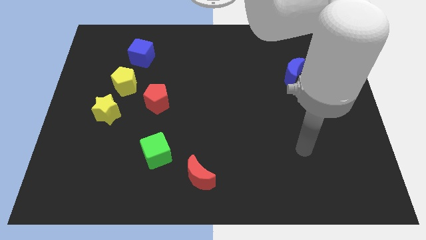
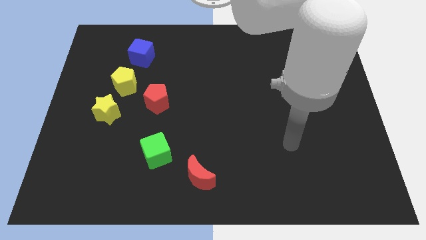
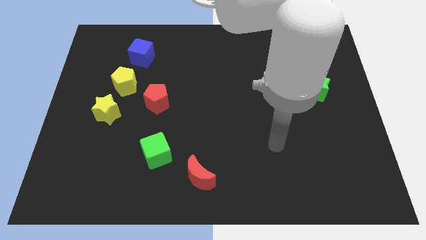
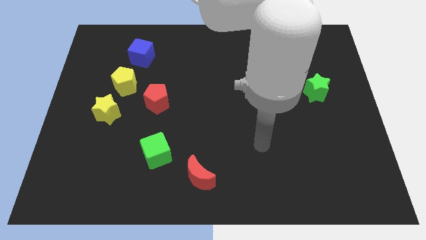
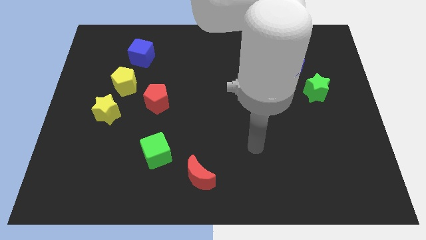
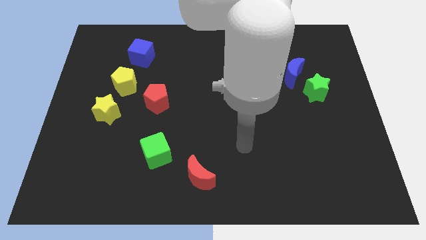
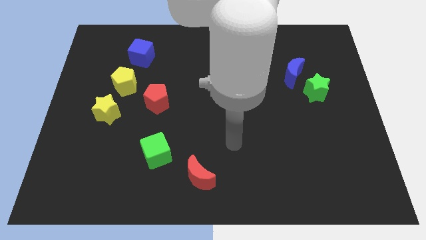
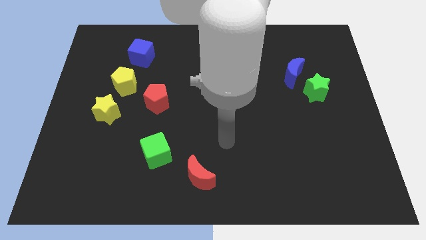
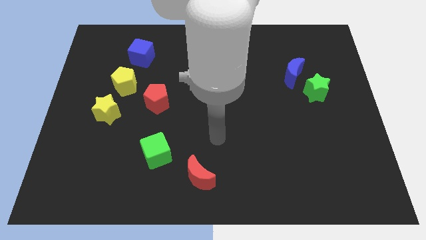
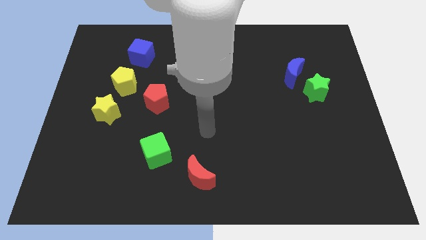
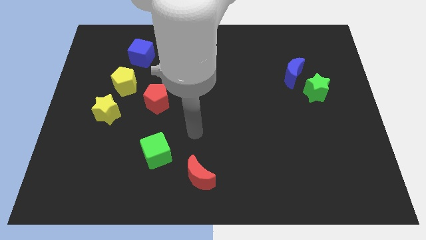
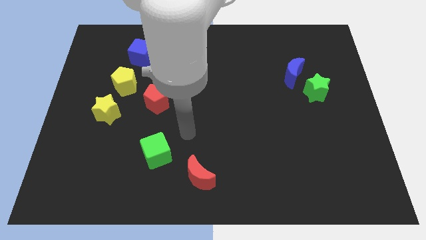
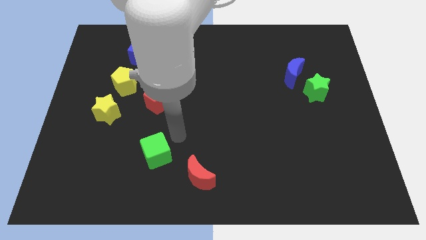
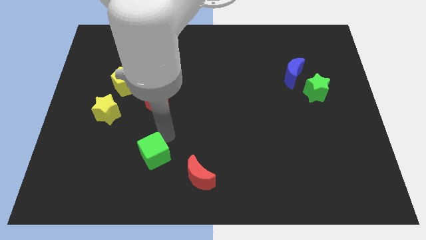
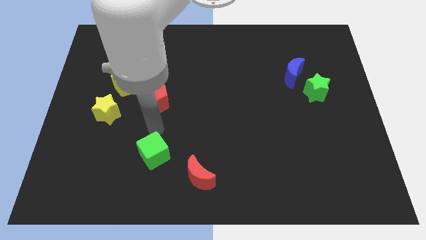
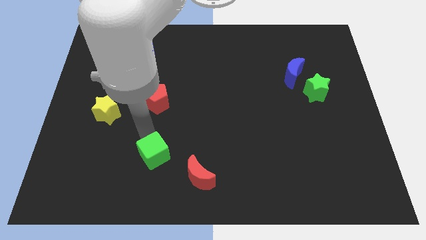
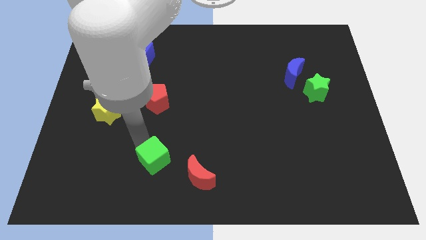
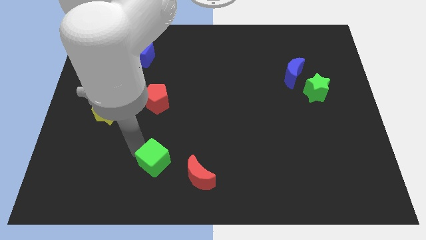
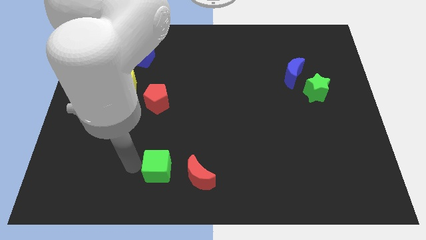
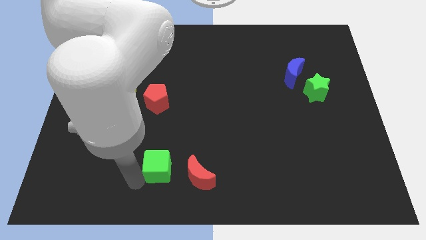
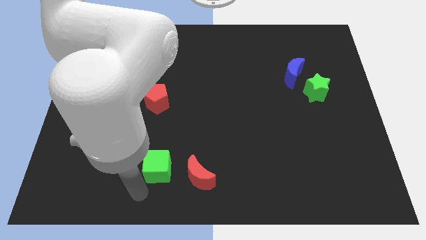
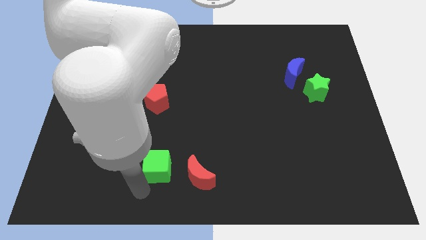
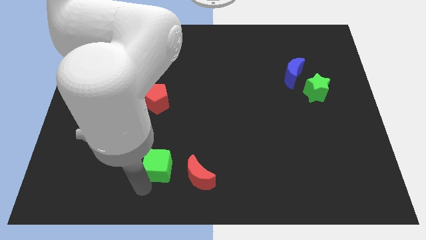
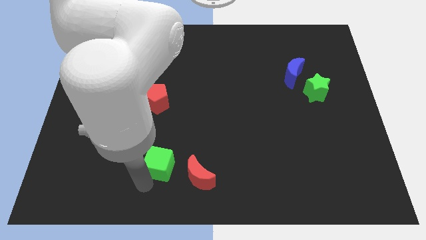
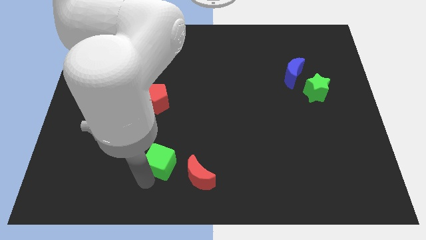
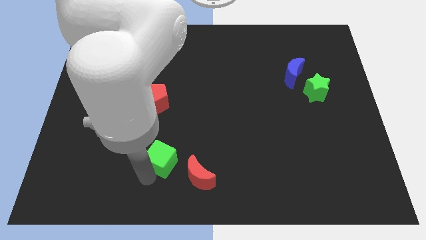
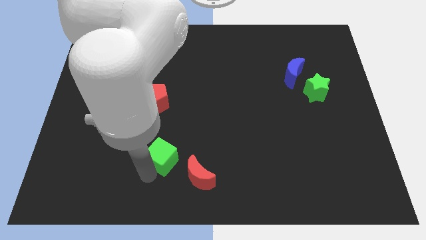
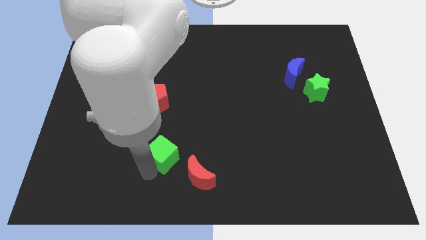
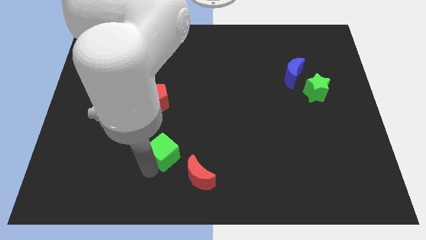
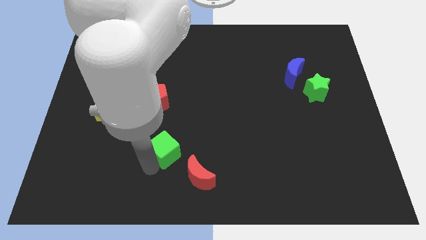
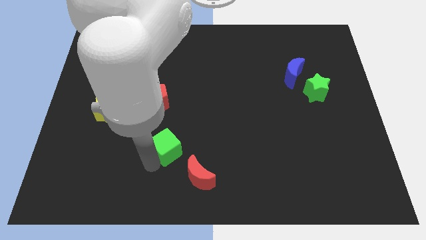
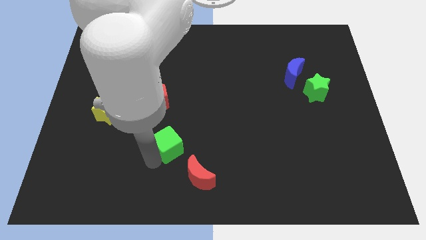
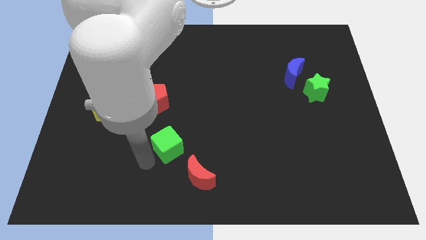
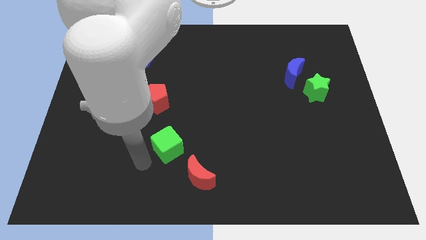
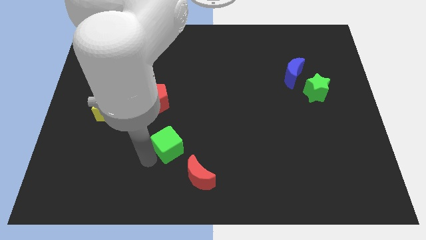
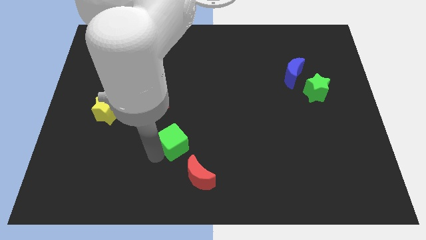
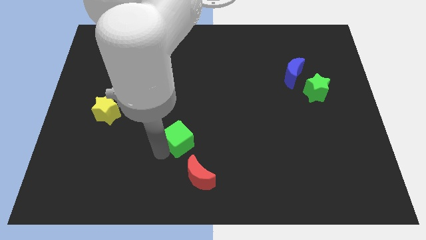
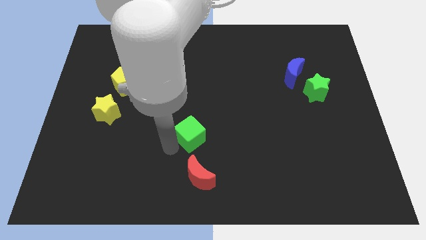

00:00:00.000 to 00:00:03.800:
slide the green cube slightly up and to the right

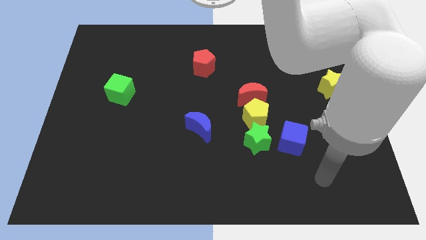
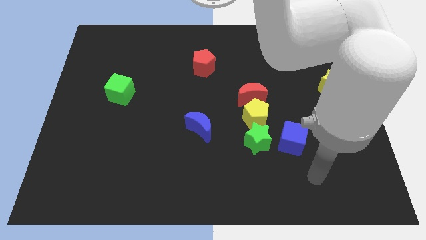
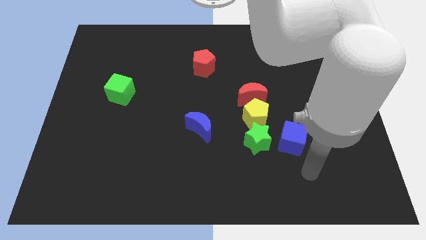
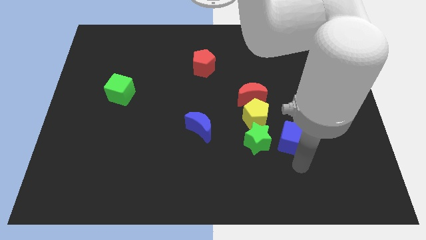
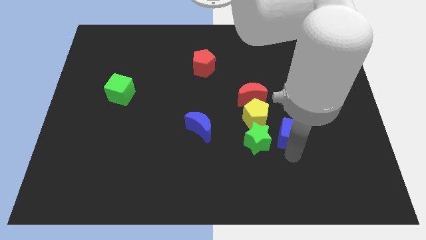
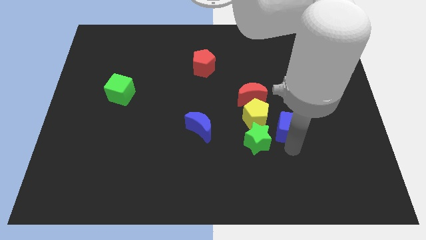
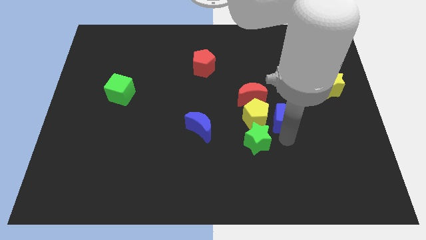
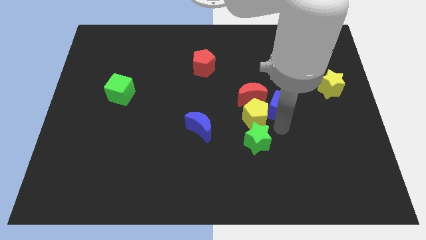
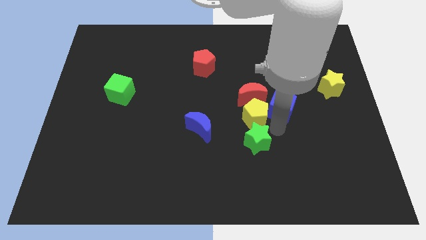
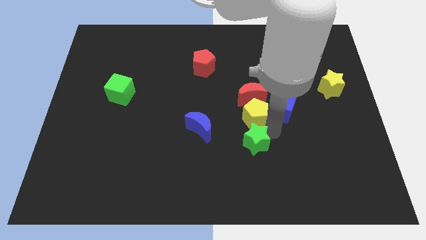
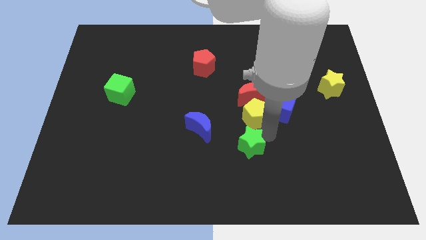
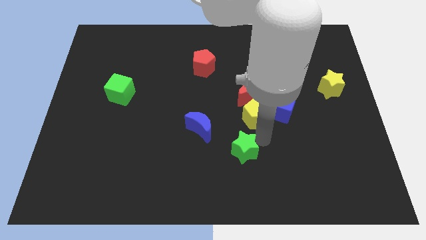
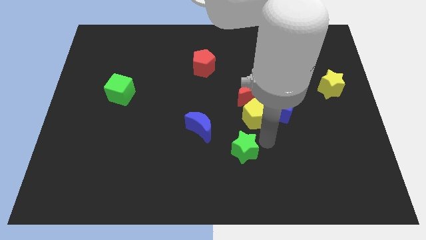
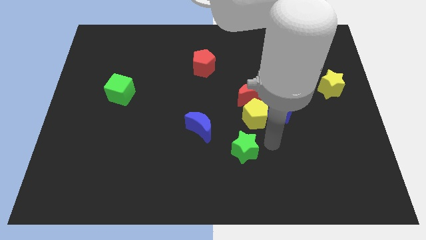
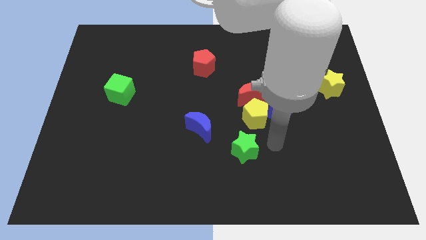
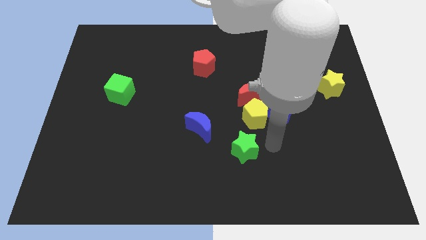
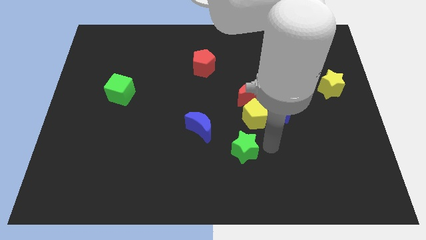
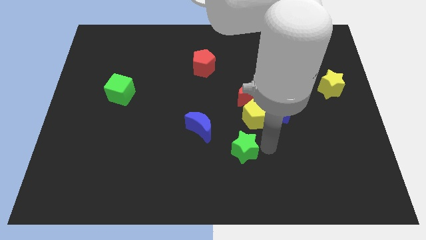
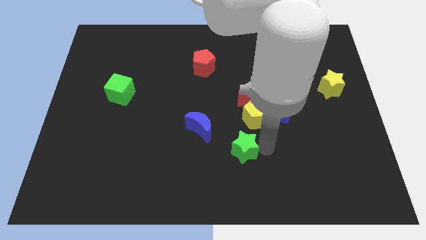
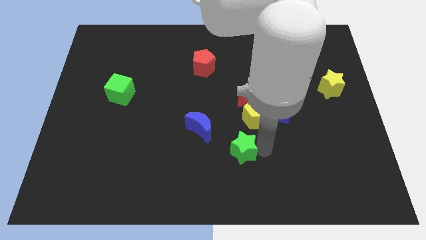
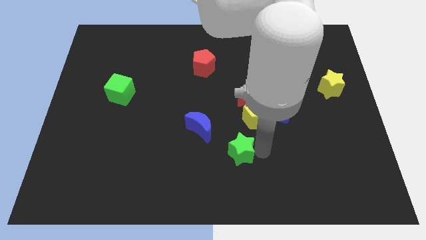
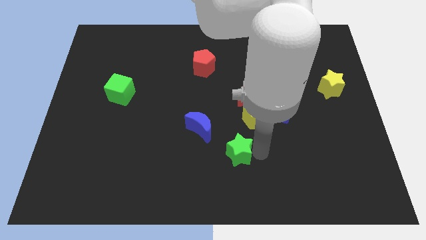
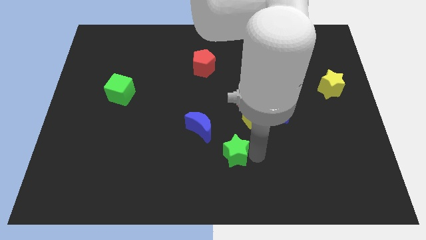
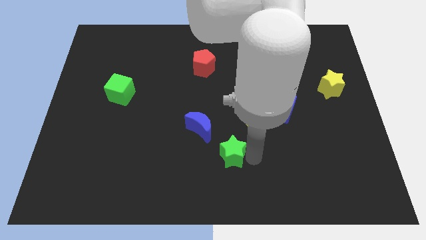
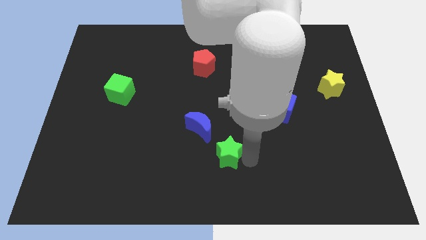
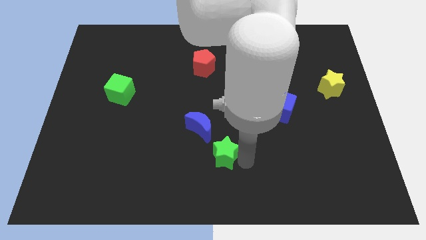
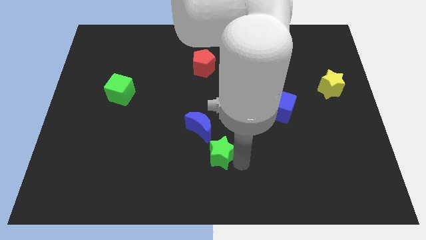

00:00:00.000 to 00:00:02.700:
slide the green star a bit to the left

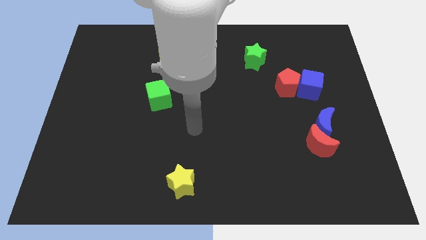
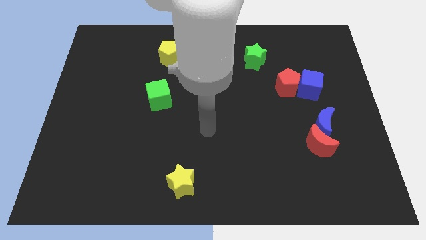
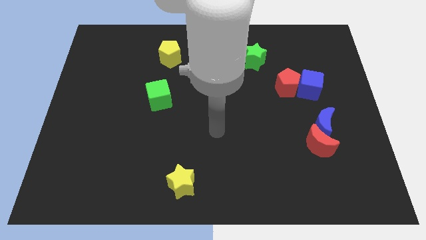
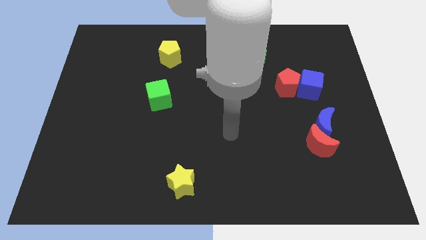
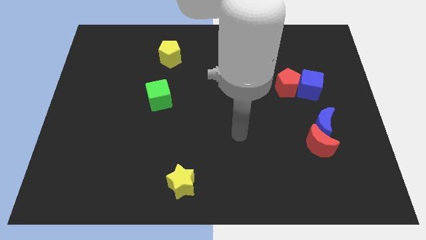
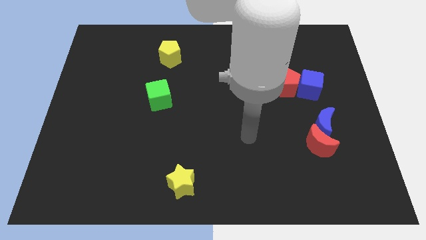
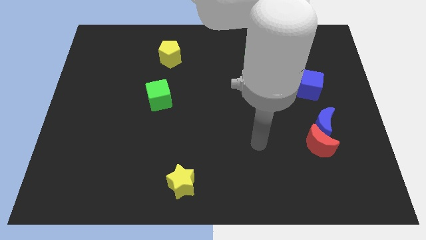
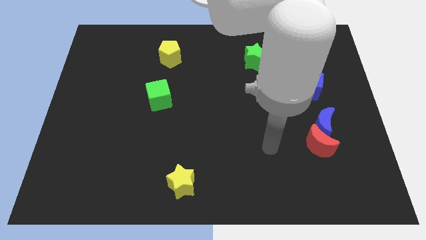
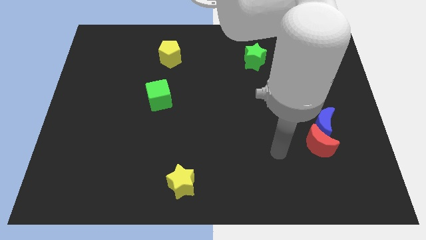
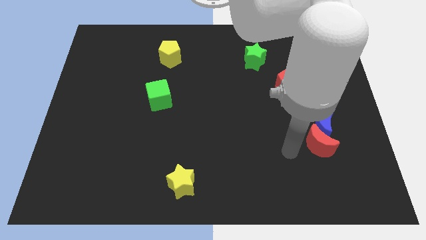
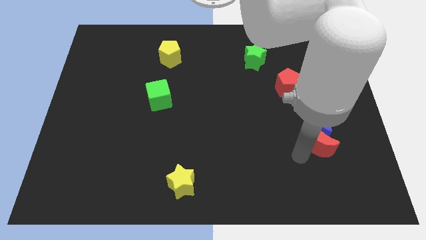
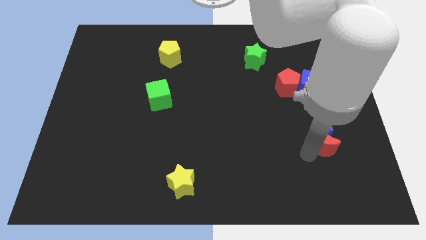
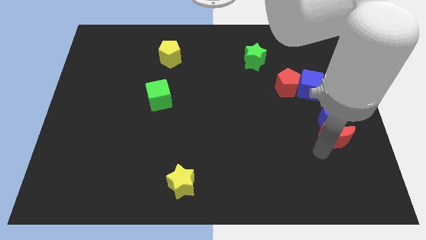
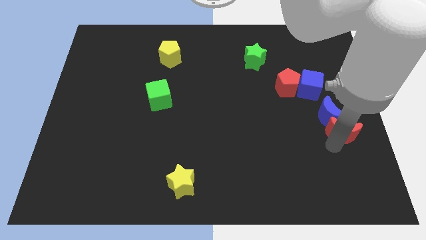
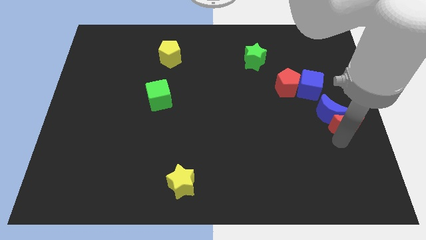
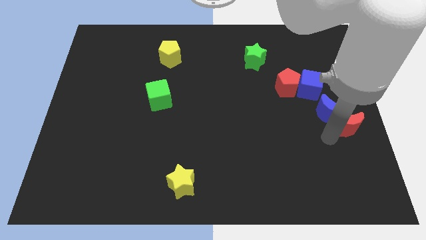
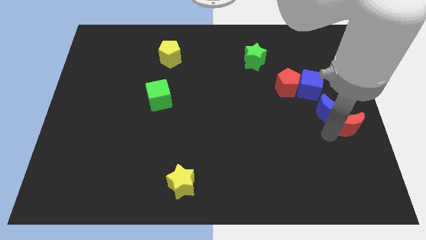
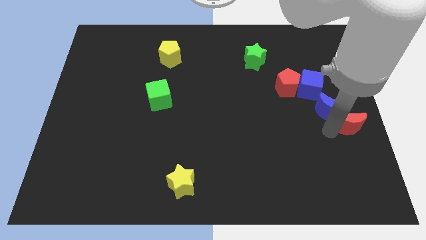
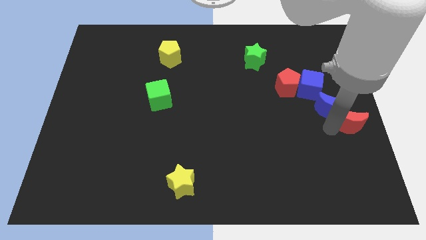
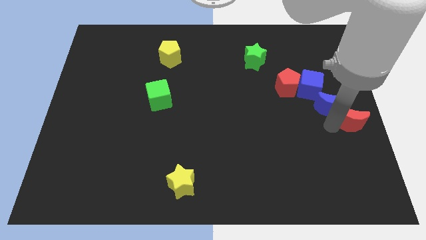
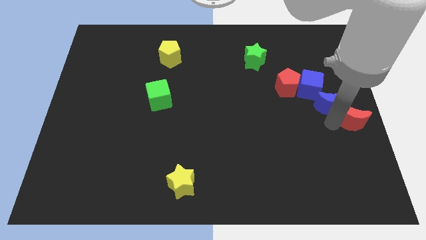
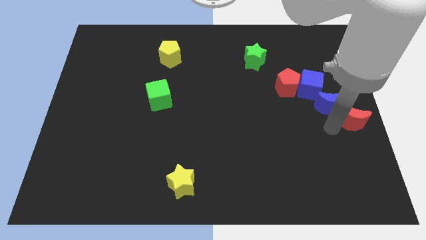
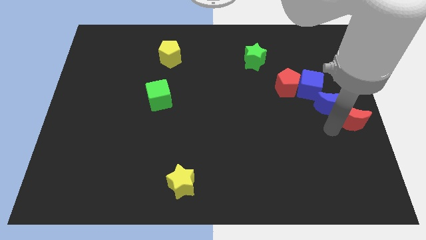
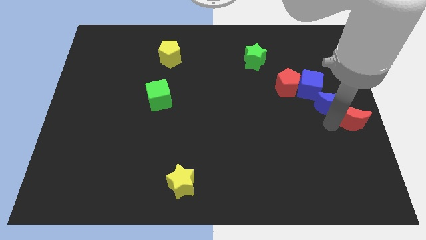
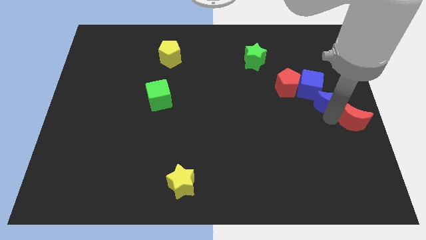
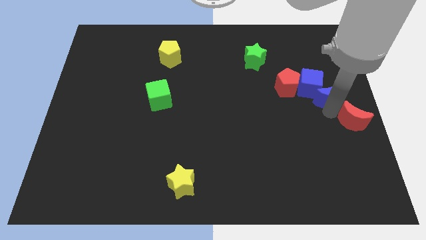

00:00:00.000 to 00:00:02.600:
push the blue moon upwards a little bit
